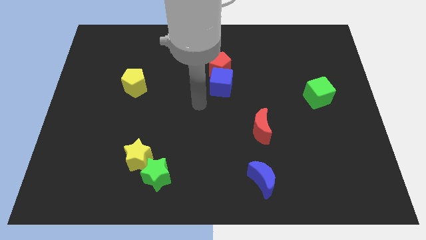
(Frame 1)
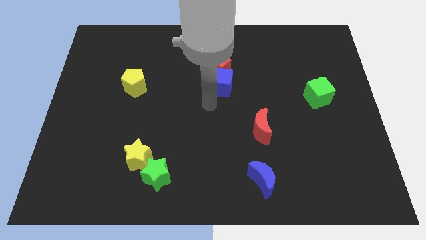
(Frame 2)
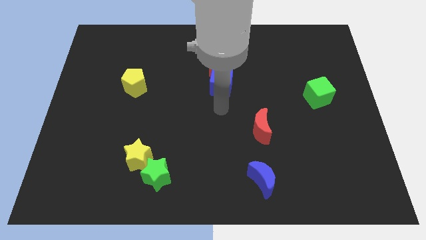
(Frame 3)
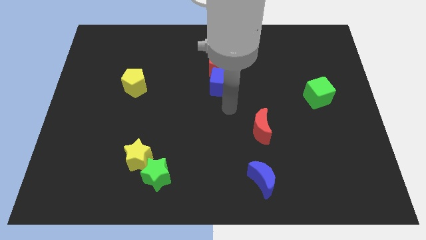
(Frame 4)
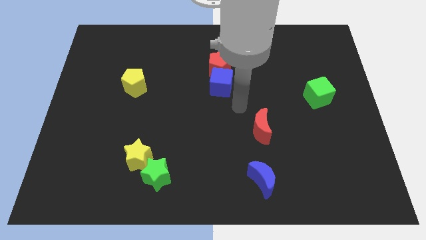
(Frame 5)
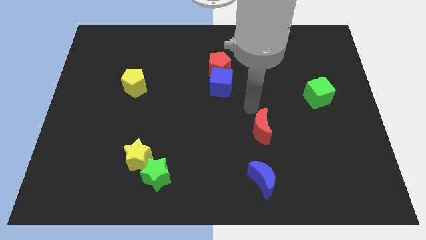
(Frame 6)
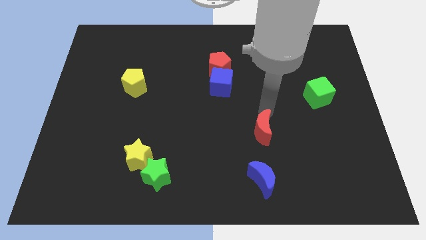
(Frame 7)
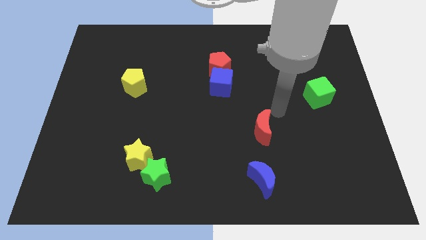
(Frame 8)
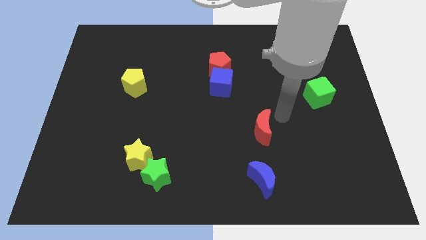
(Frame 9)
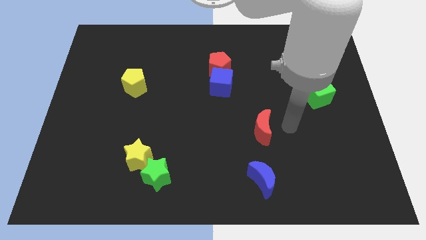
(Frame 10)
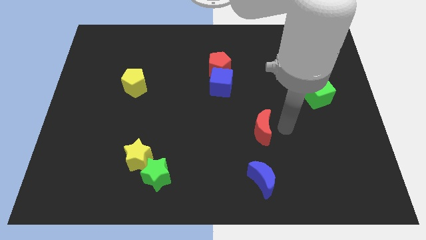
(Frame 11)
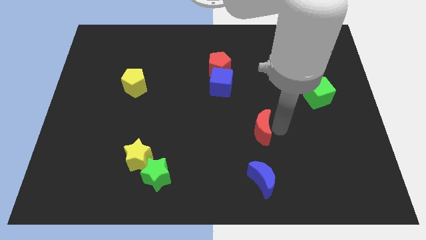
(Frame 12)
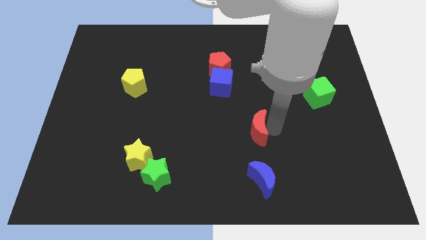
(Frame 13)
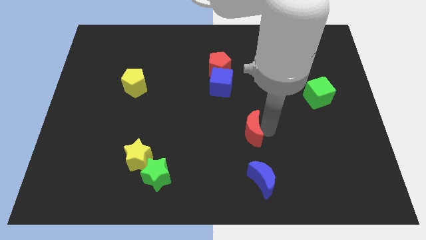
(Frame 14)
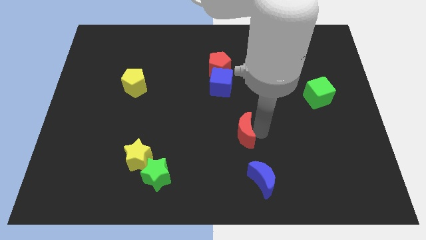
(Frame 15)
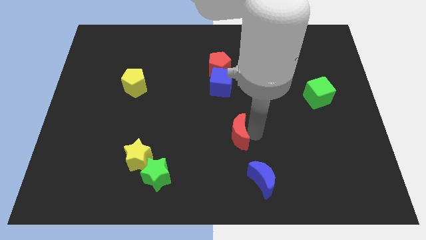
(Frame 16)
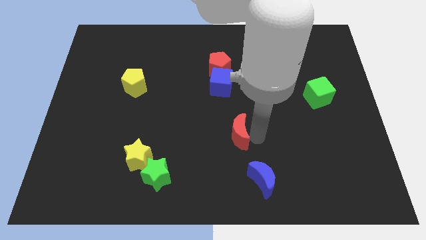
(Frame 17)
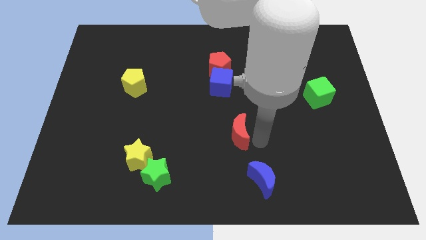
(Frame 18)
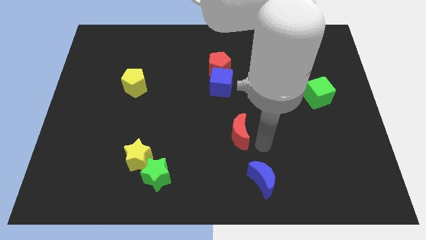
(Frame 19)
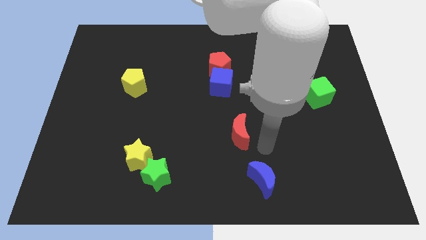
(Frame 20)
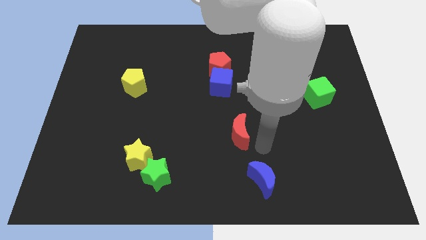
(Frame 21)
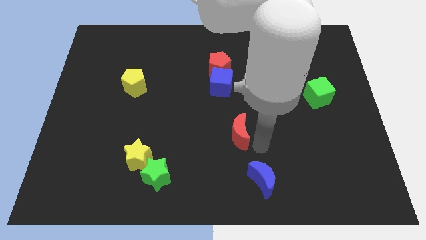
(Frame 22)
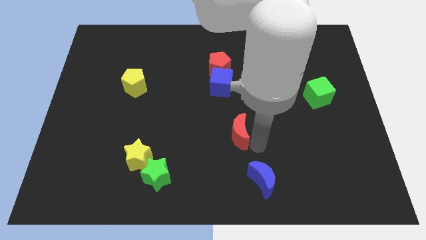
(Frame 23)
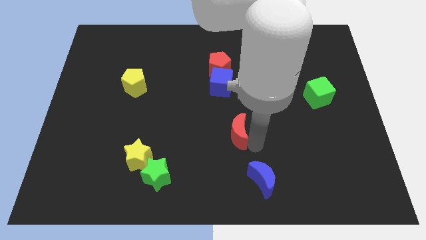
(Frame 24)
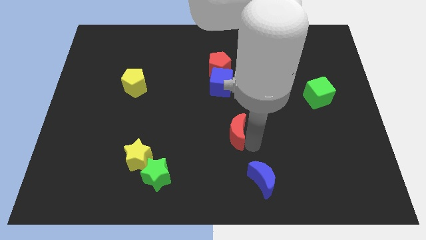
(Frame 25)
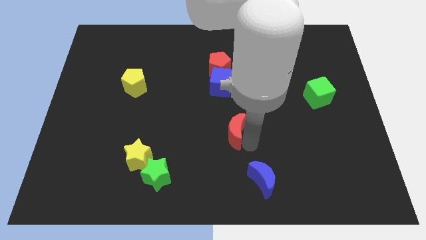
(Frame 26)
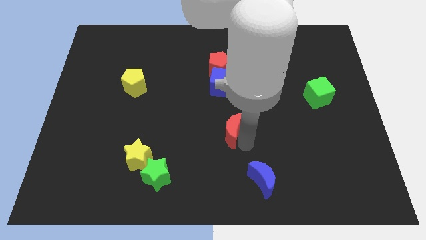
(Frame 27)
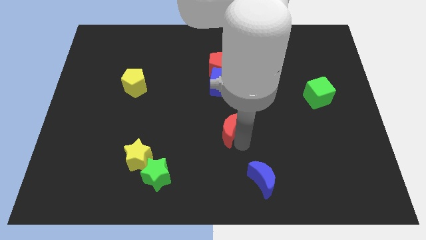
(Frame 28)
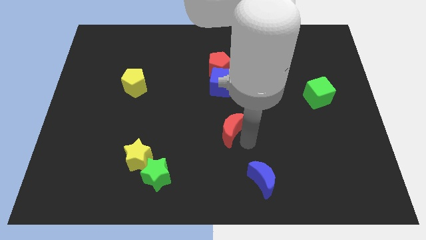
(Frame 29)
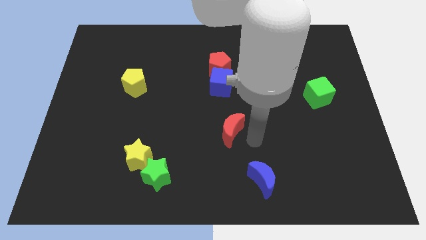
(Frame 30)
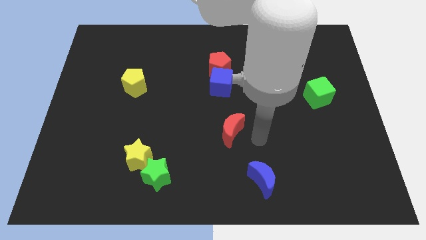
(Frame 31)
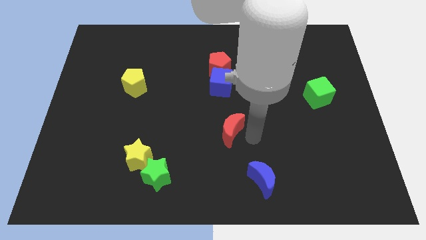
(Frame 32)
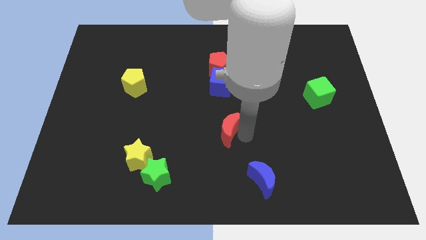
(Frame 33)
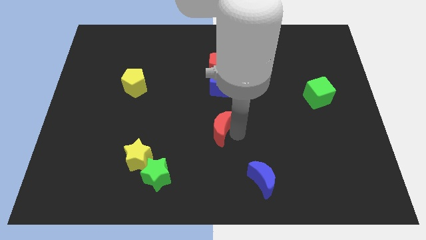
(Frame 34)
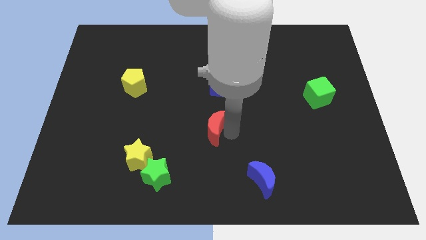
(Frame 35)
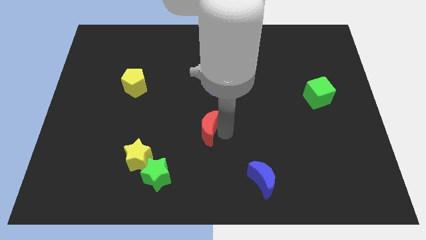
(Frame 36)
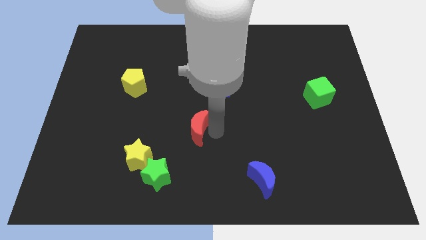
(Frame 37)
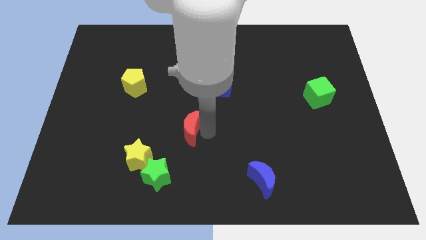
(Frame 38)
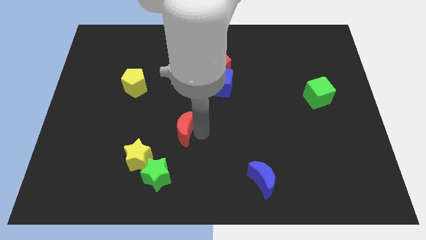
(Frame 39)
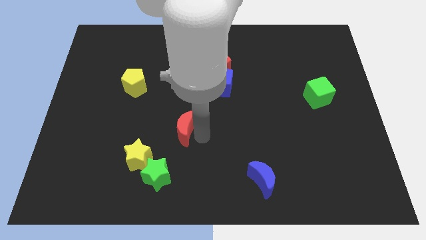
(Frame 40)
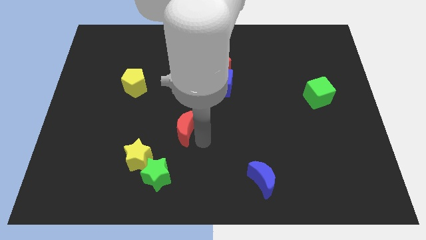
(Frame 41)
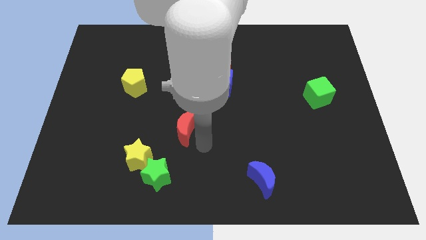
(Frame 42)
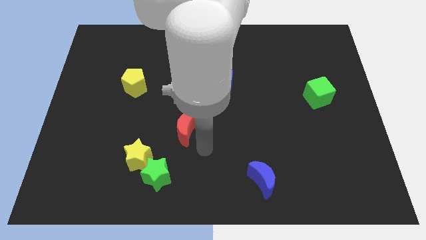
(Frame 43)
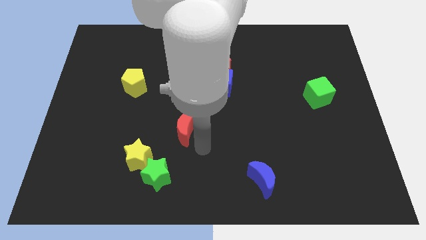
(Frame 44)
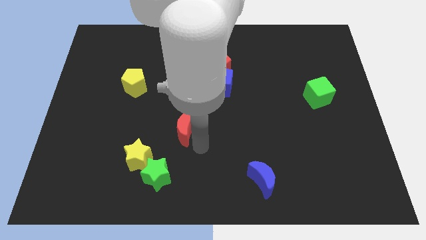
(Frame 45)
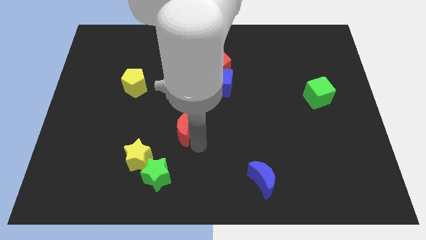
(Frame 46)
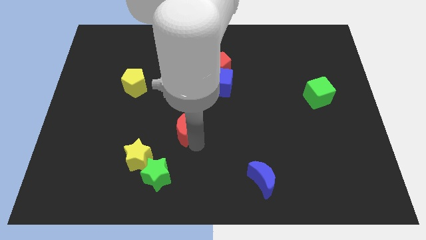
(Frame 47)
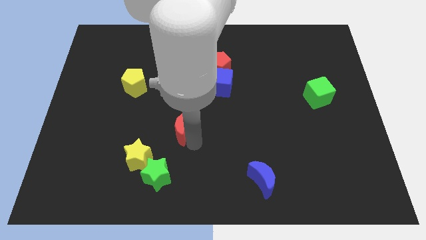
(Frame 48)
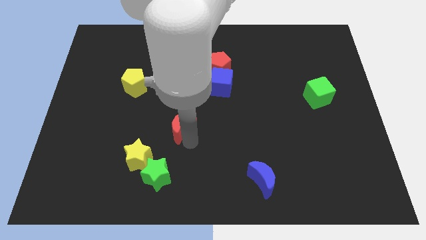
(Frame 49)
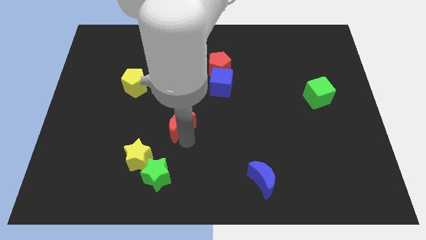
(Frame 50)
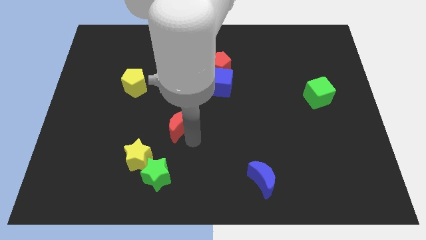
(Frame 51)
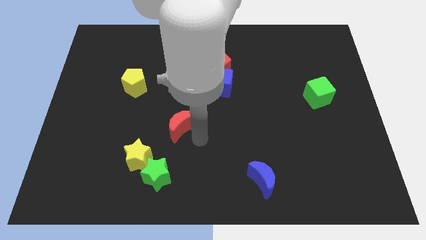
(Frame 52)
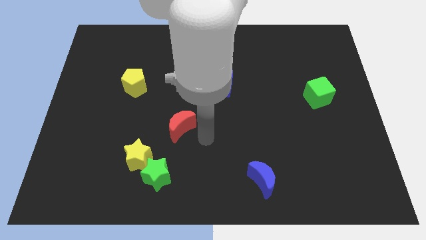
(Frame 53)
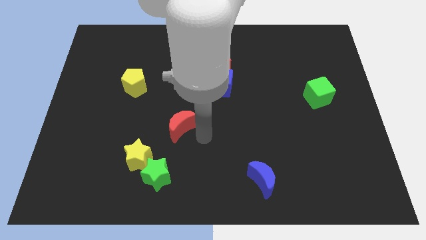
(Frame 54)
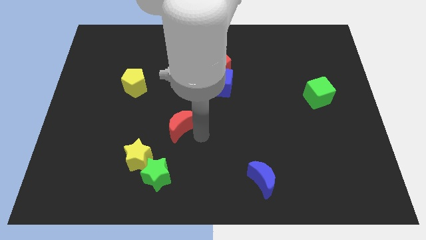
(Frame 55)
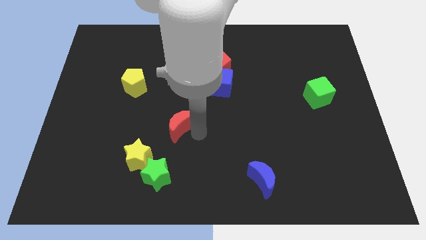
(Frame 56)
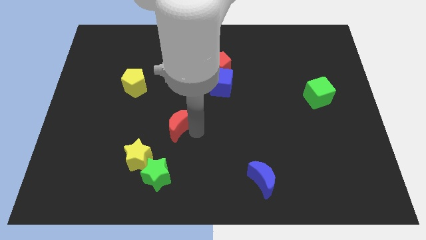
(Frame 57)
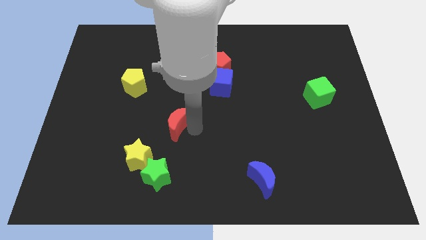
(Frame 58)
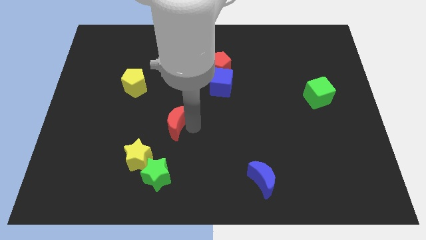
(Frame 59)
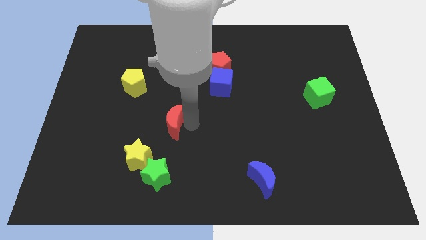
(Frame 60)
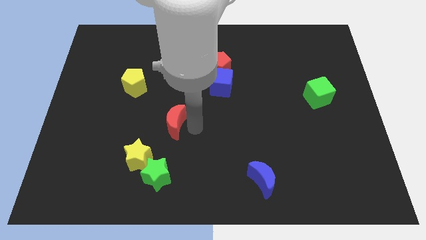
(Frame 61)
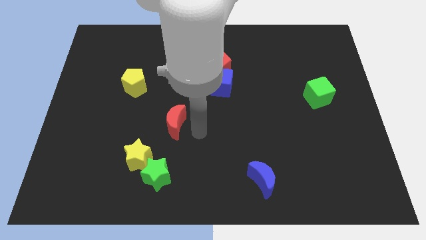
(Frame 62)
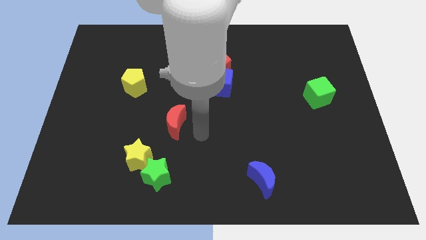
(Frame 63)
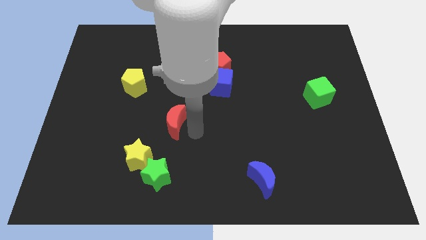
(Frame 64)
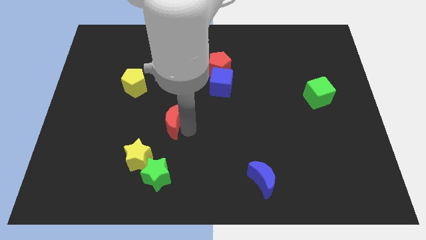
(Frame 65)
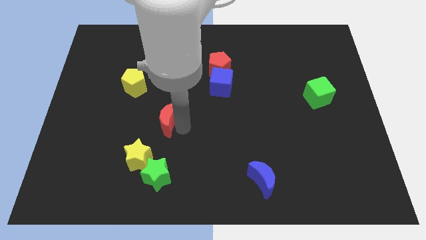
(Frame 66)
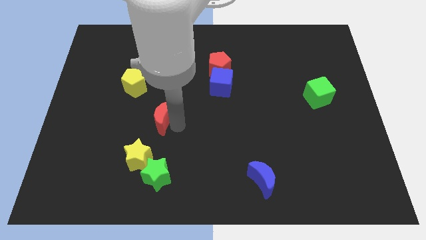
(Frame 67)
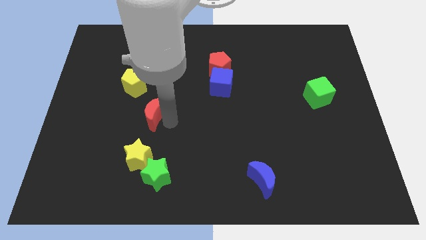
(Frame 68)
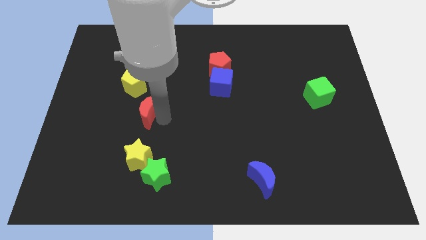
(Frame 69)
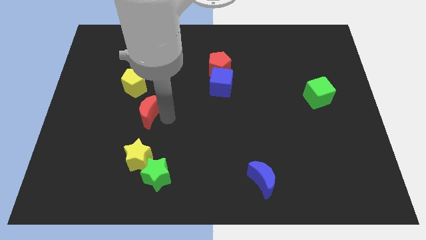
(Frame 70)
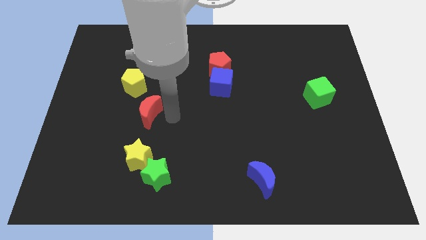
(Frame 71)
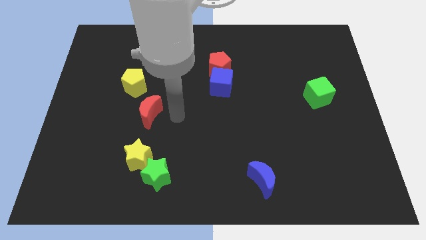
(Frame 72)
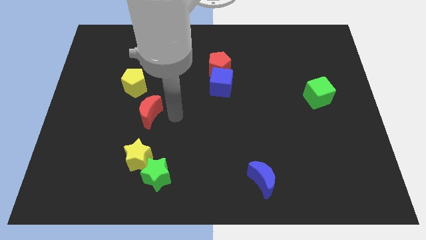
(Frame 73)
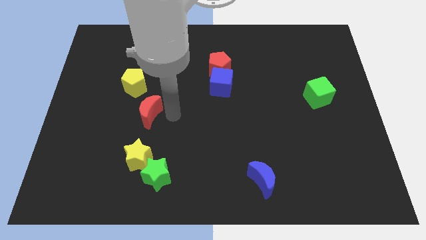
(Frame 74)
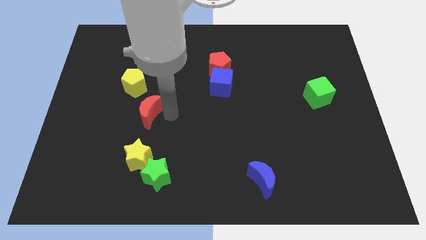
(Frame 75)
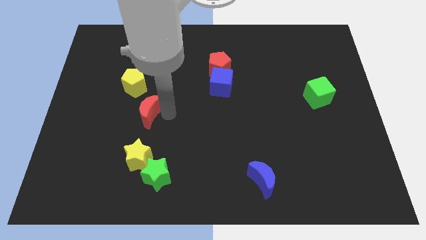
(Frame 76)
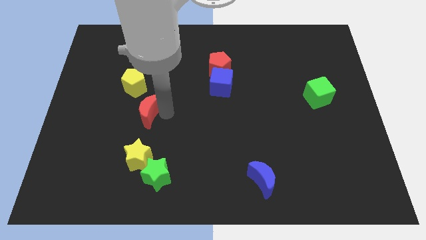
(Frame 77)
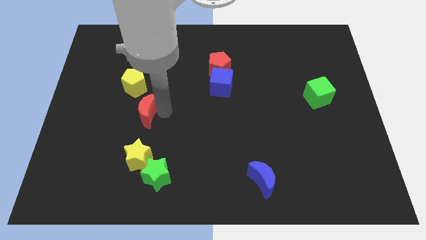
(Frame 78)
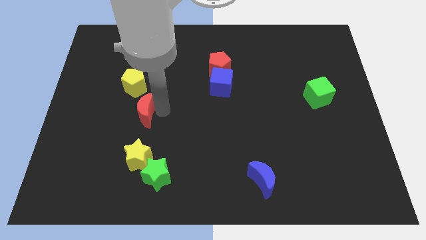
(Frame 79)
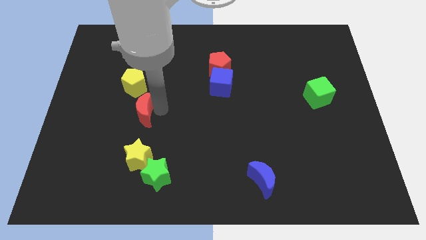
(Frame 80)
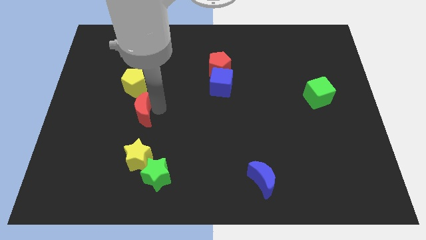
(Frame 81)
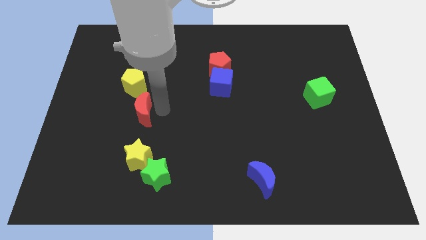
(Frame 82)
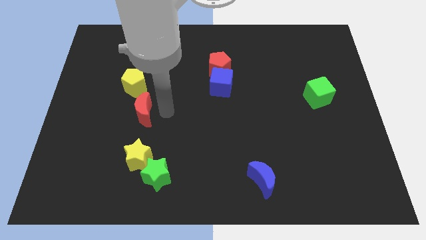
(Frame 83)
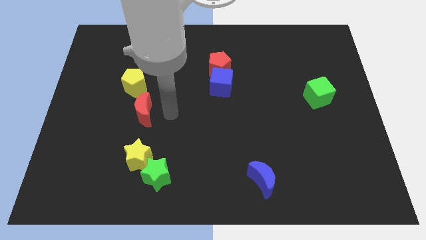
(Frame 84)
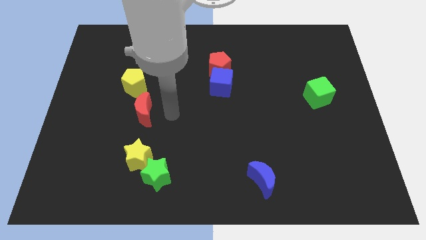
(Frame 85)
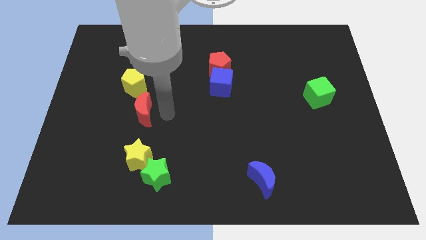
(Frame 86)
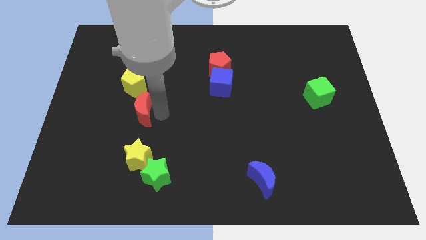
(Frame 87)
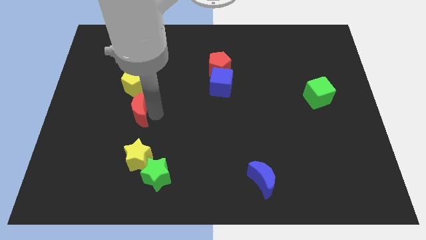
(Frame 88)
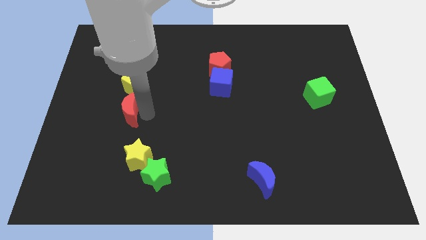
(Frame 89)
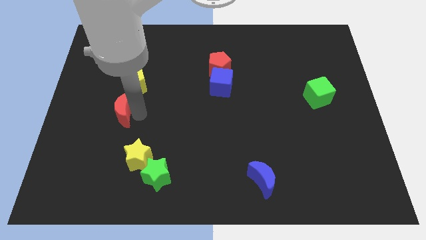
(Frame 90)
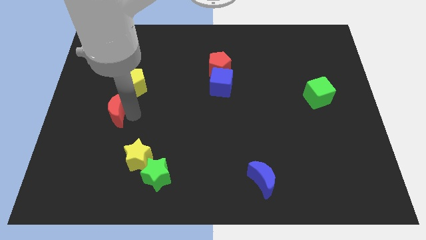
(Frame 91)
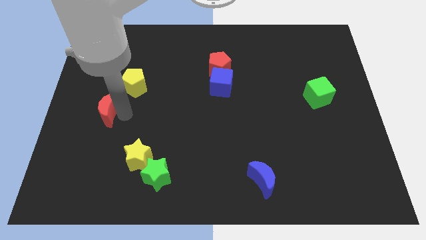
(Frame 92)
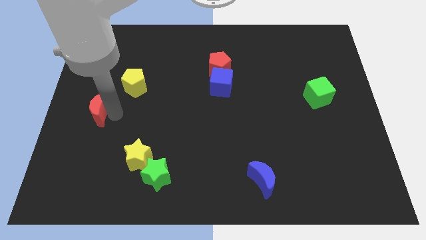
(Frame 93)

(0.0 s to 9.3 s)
push the red moon to the left side
